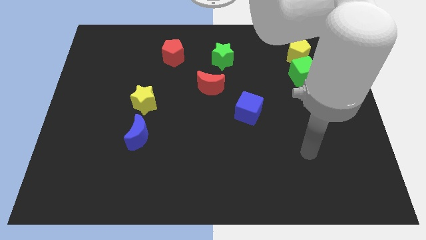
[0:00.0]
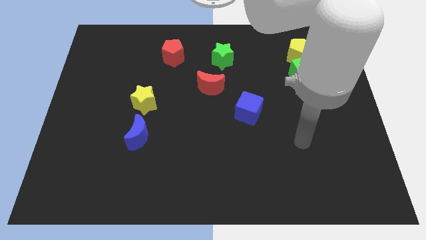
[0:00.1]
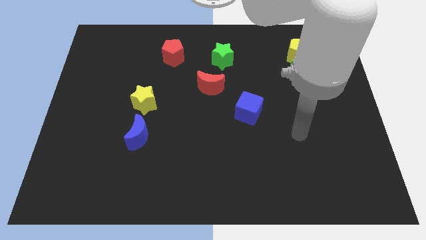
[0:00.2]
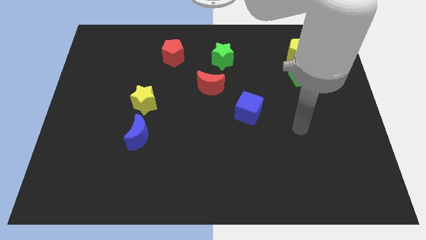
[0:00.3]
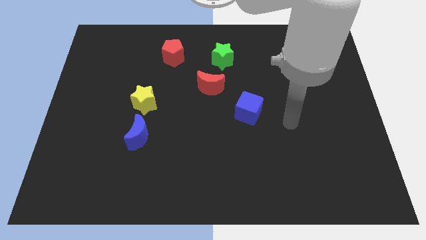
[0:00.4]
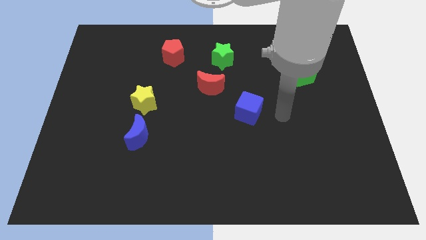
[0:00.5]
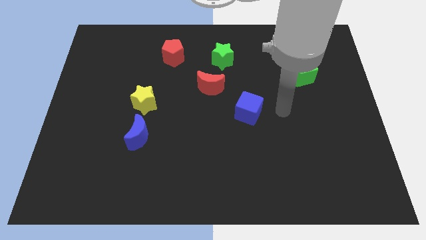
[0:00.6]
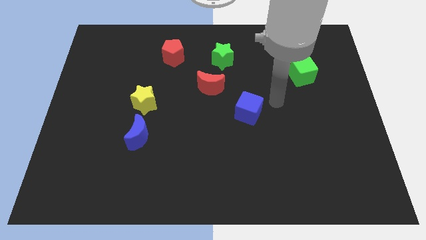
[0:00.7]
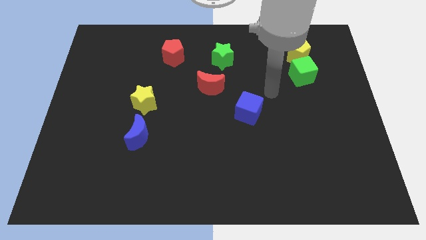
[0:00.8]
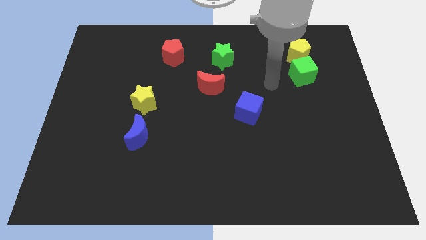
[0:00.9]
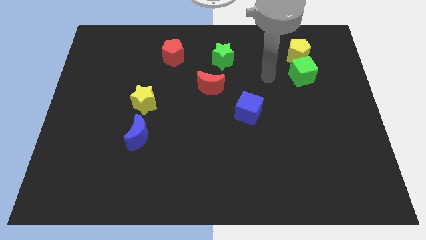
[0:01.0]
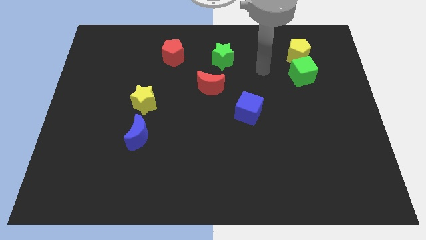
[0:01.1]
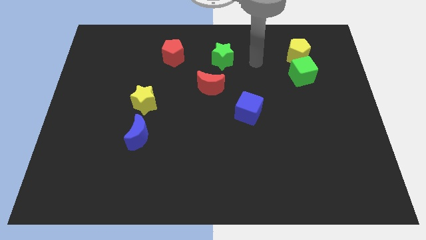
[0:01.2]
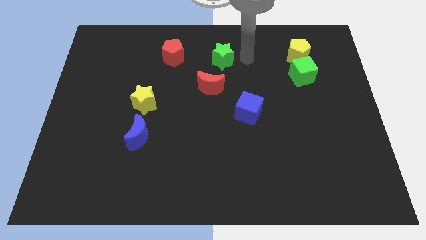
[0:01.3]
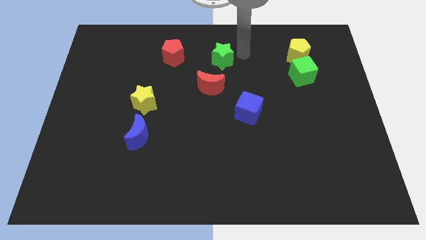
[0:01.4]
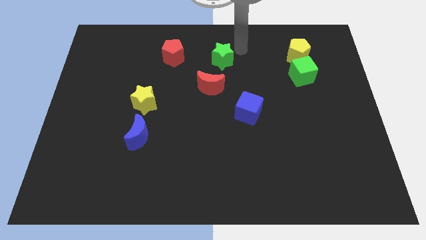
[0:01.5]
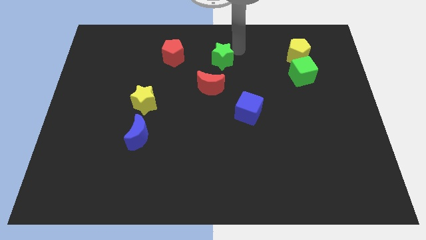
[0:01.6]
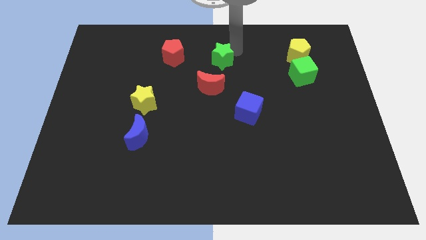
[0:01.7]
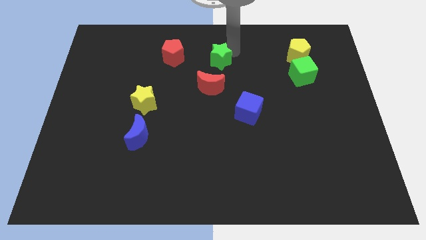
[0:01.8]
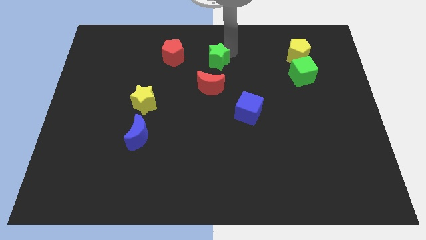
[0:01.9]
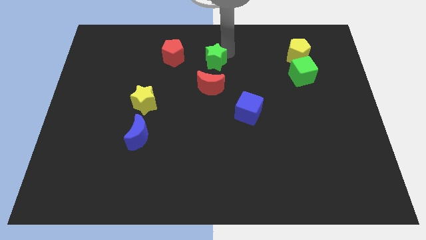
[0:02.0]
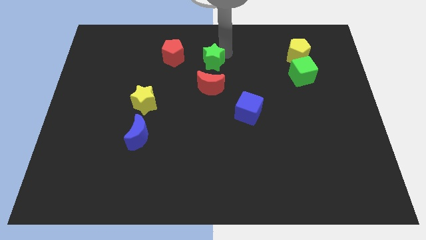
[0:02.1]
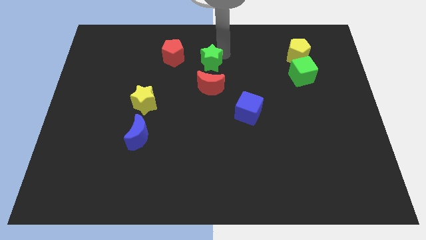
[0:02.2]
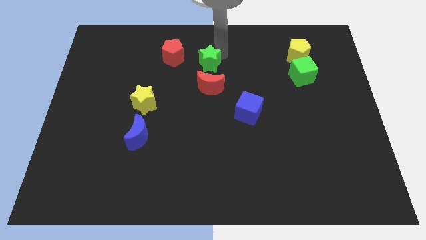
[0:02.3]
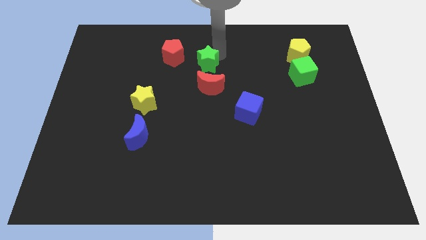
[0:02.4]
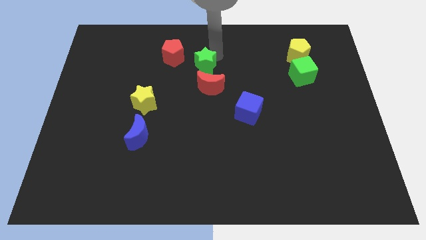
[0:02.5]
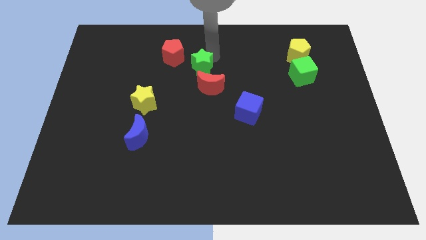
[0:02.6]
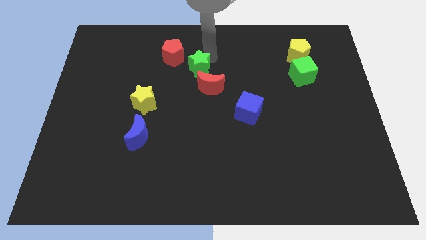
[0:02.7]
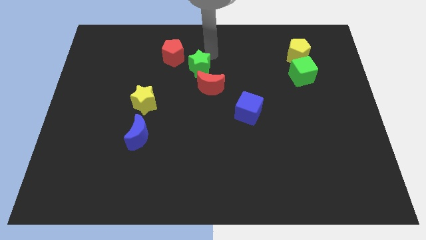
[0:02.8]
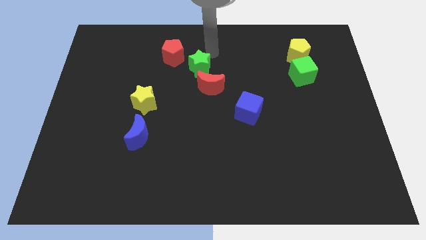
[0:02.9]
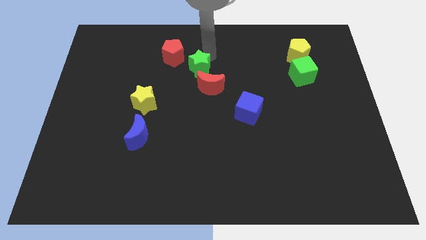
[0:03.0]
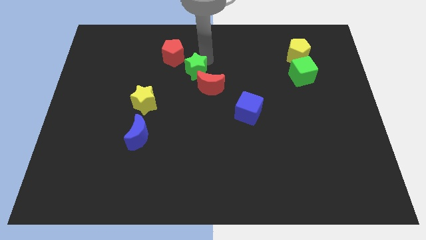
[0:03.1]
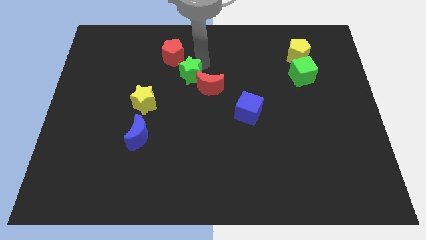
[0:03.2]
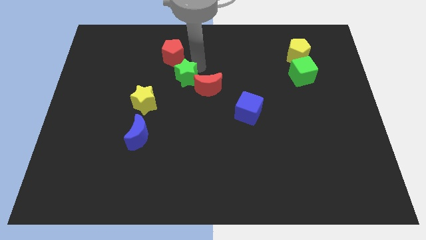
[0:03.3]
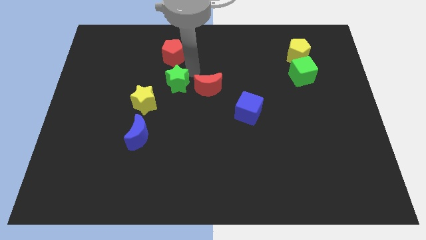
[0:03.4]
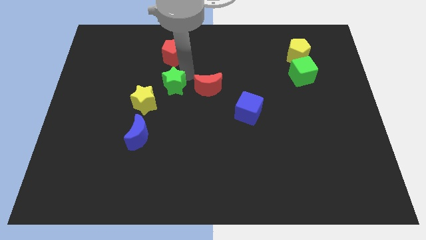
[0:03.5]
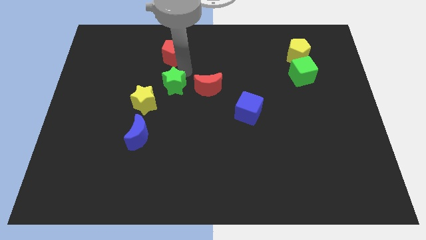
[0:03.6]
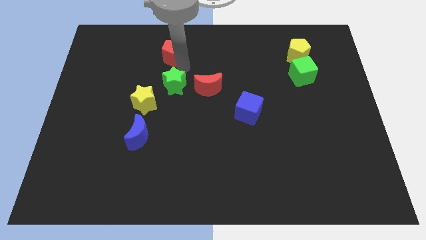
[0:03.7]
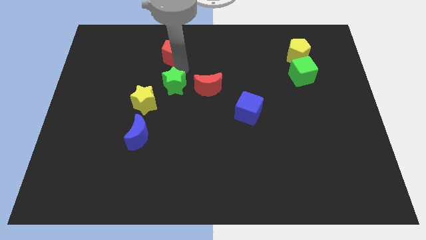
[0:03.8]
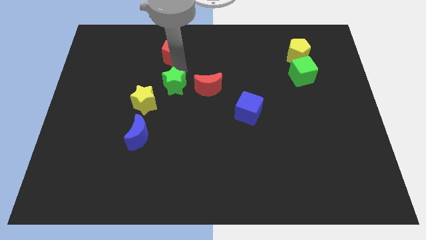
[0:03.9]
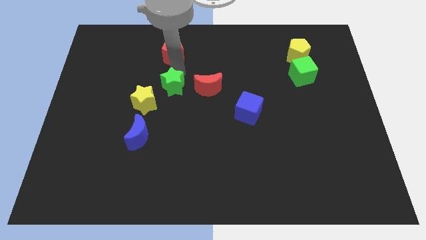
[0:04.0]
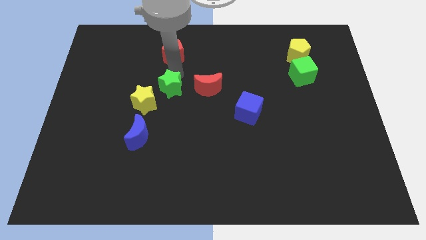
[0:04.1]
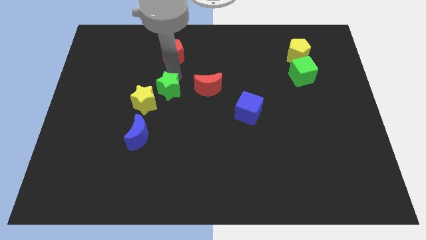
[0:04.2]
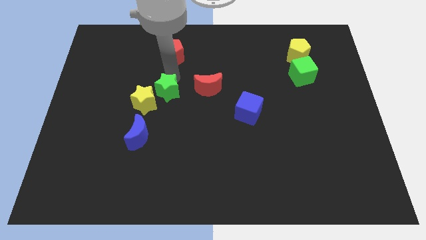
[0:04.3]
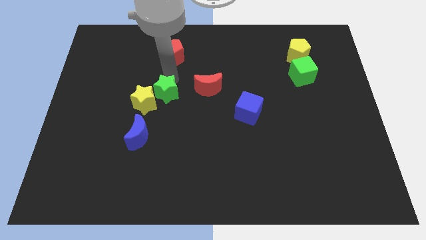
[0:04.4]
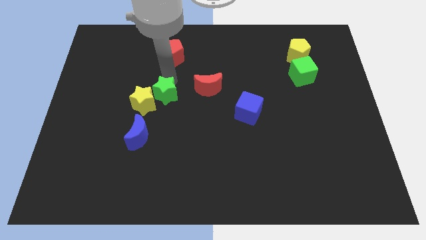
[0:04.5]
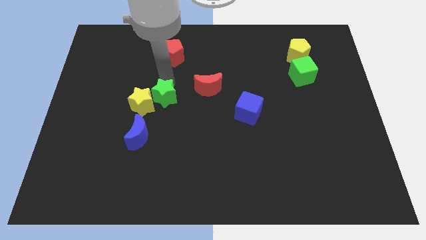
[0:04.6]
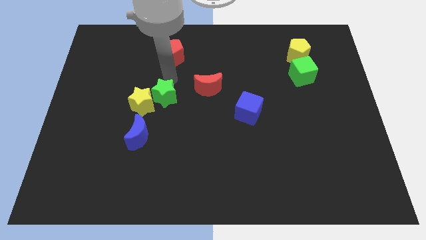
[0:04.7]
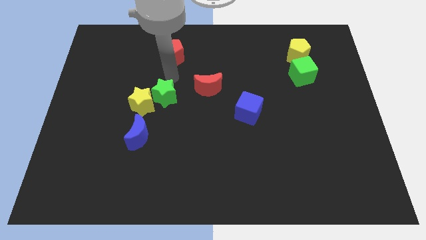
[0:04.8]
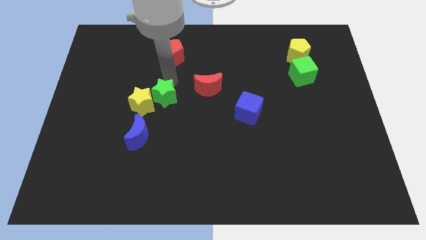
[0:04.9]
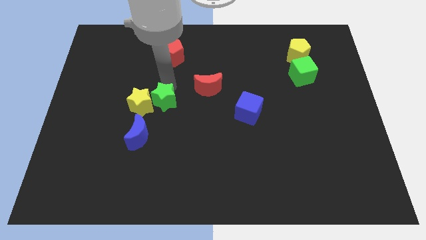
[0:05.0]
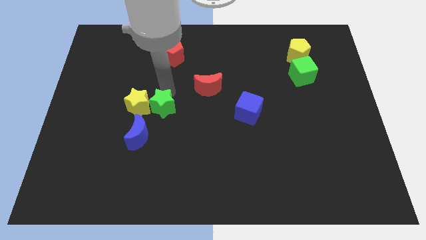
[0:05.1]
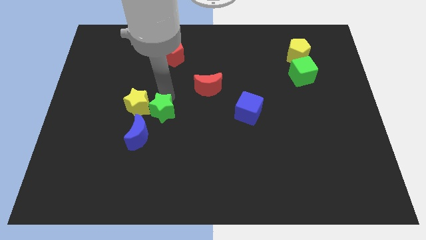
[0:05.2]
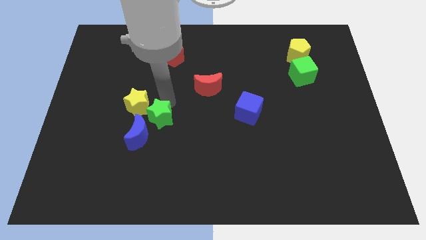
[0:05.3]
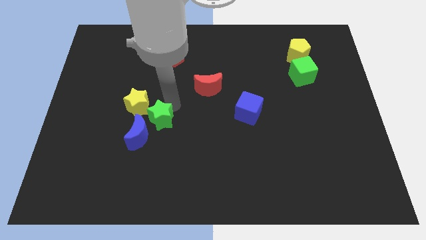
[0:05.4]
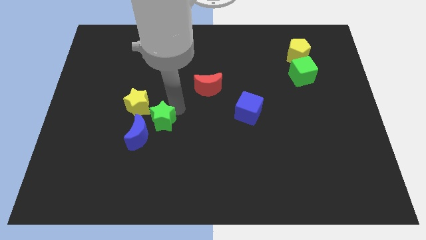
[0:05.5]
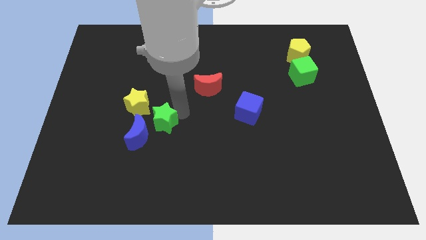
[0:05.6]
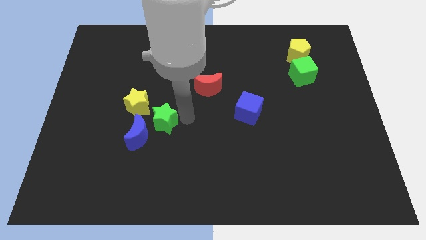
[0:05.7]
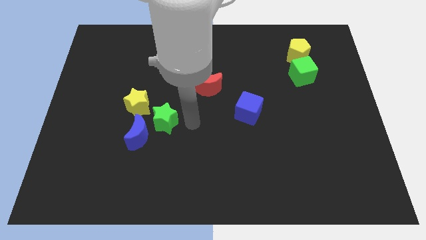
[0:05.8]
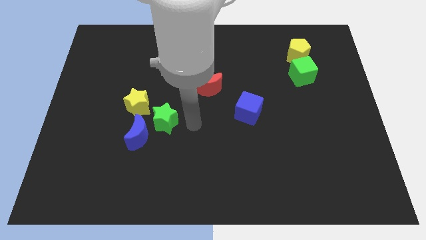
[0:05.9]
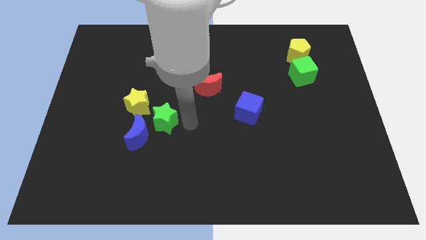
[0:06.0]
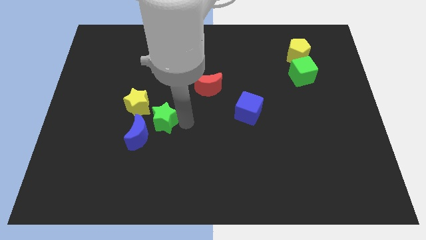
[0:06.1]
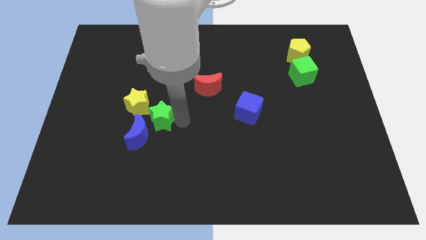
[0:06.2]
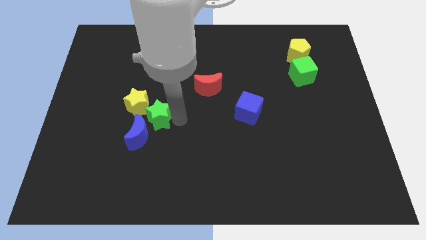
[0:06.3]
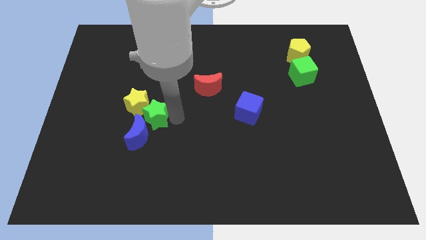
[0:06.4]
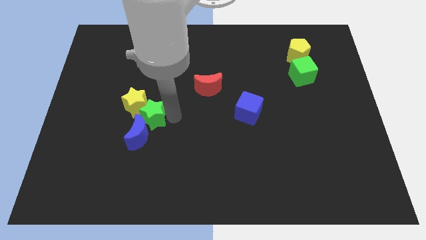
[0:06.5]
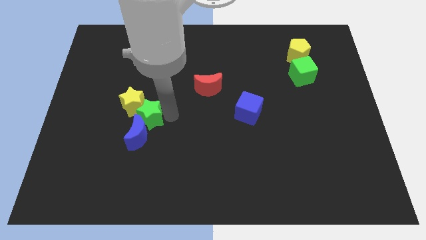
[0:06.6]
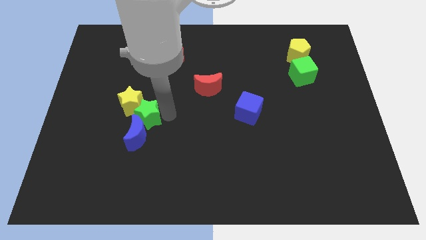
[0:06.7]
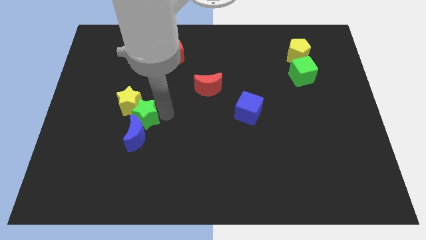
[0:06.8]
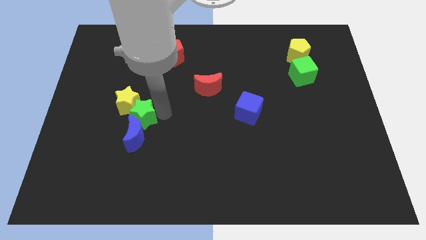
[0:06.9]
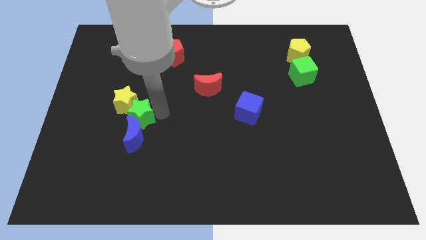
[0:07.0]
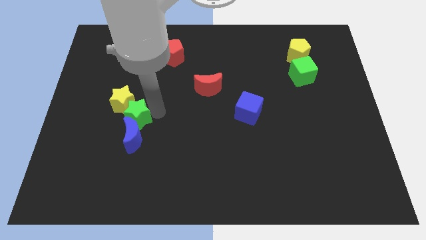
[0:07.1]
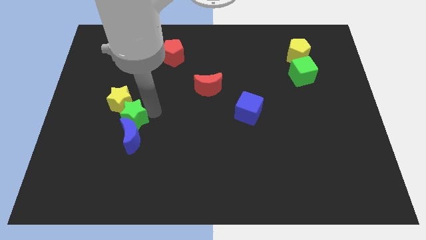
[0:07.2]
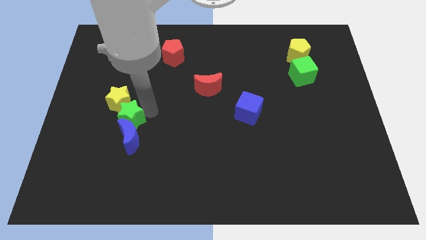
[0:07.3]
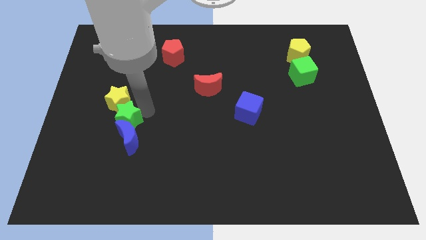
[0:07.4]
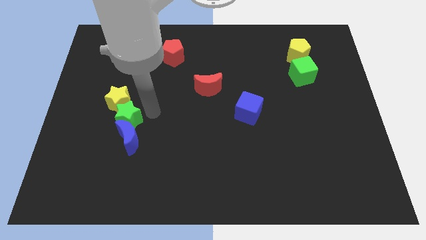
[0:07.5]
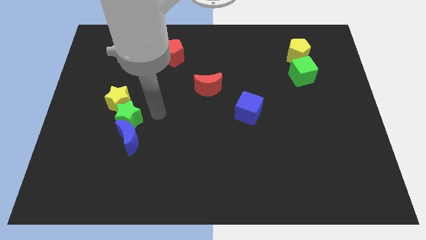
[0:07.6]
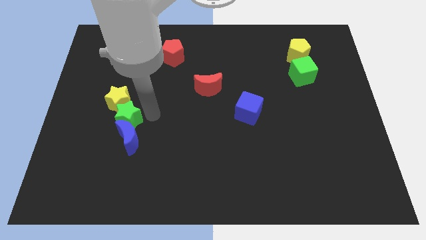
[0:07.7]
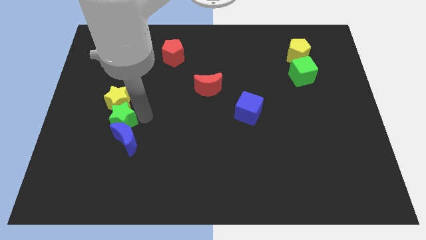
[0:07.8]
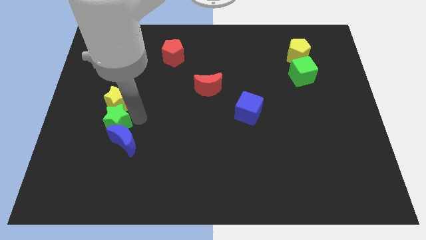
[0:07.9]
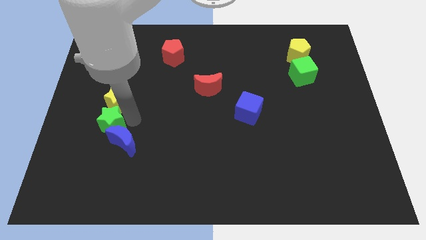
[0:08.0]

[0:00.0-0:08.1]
move the green star to the left side of the blue moon
